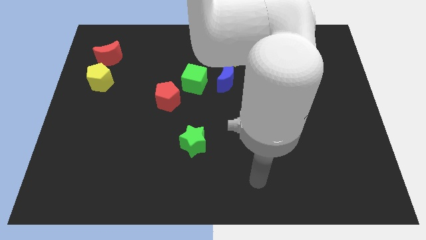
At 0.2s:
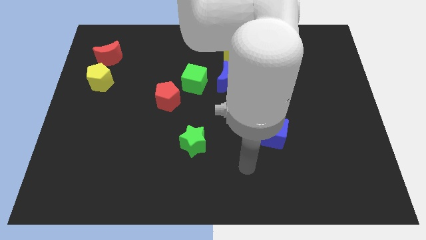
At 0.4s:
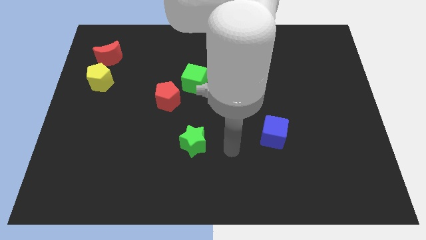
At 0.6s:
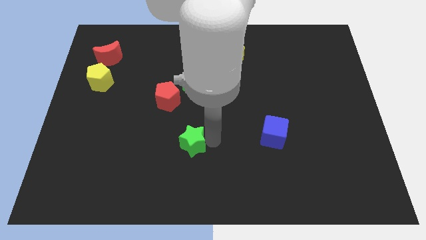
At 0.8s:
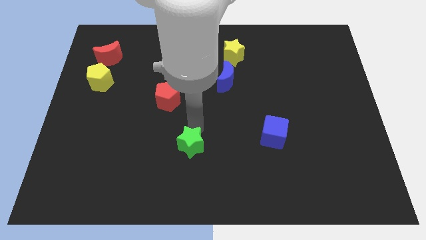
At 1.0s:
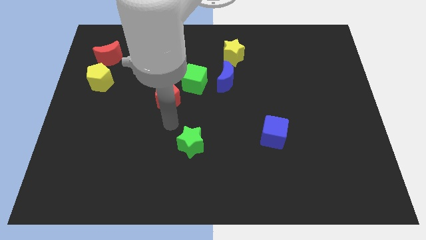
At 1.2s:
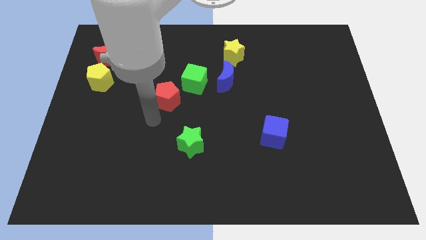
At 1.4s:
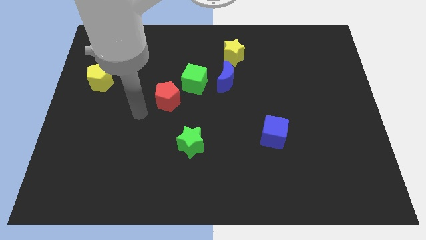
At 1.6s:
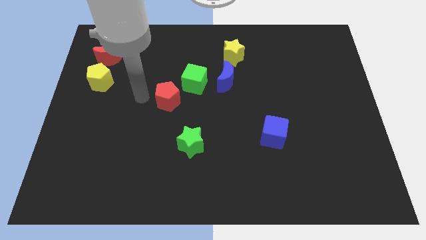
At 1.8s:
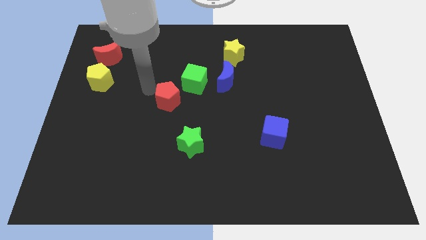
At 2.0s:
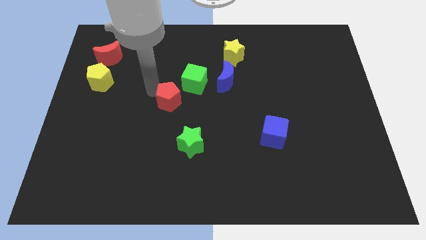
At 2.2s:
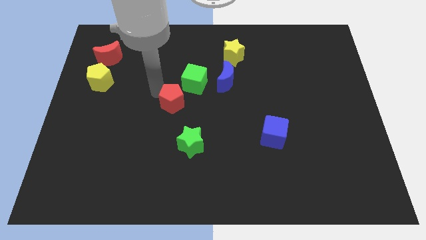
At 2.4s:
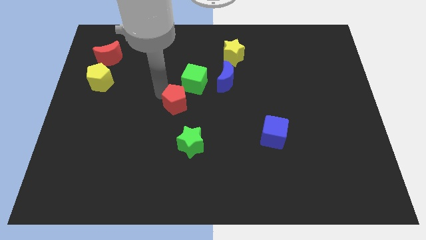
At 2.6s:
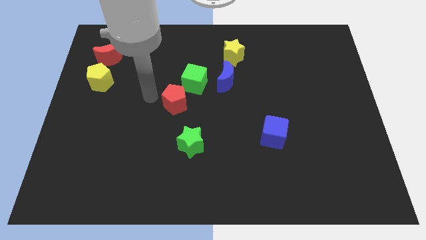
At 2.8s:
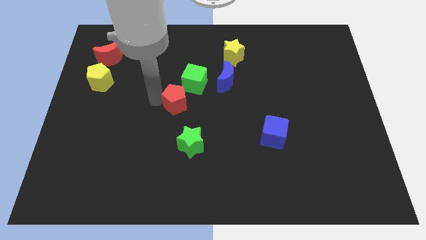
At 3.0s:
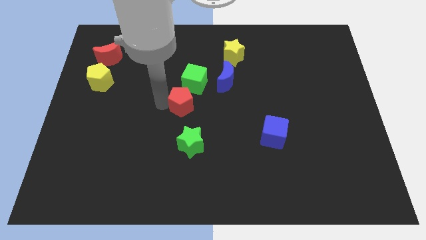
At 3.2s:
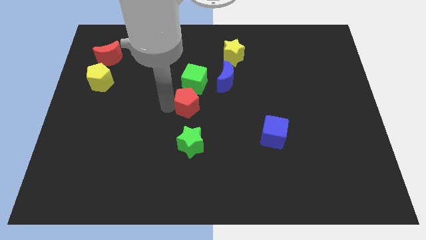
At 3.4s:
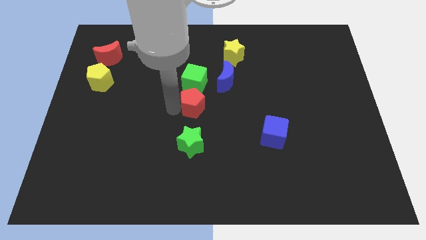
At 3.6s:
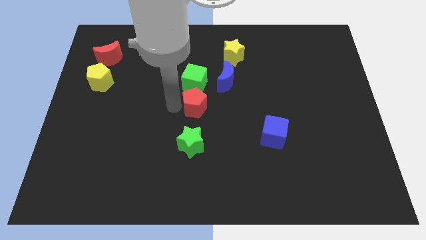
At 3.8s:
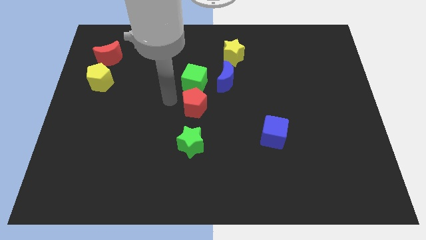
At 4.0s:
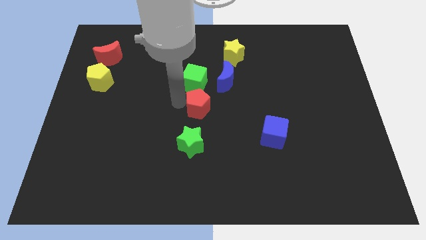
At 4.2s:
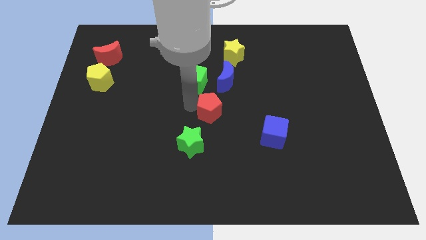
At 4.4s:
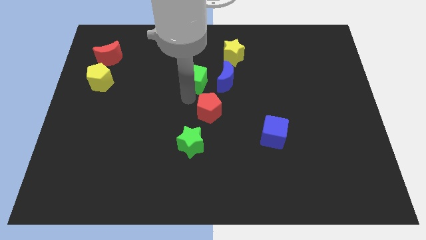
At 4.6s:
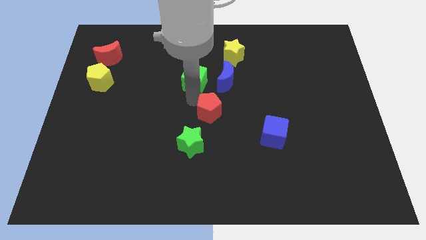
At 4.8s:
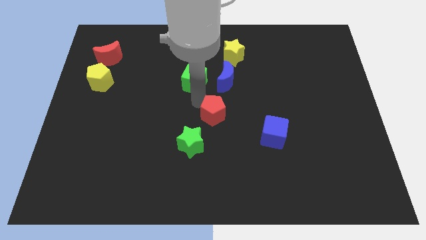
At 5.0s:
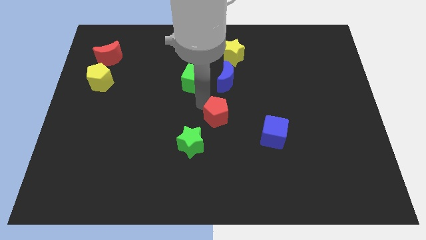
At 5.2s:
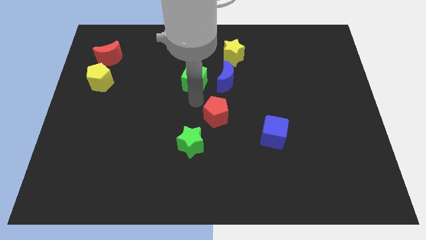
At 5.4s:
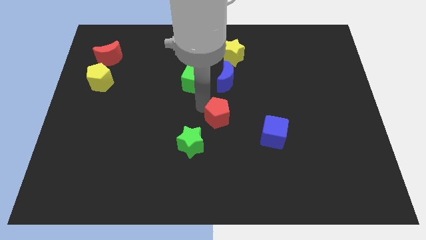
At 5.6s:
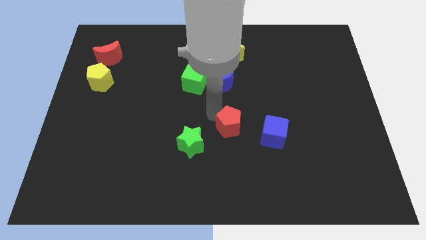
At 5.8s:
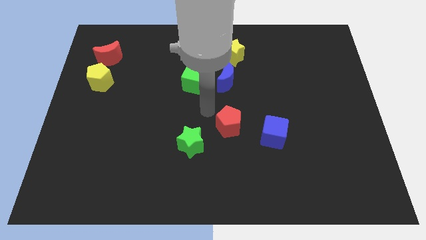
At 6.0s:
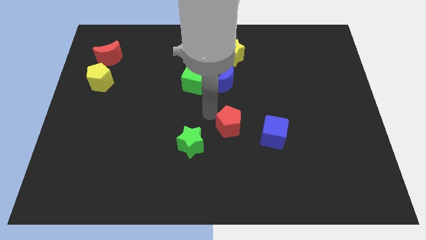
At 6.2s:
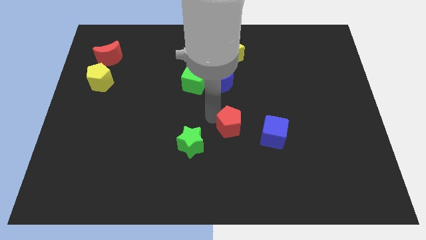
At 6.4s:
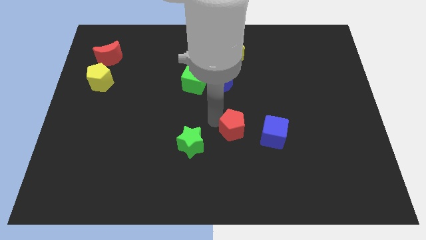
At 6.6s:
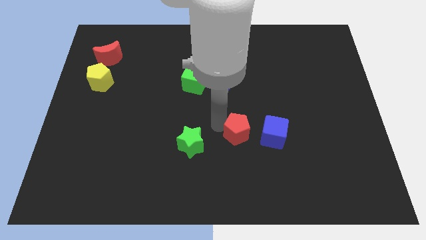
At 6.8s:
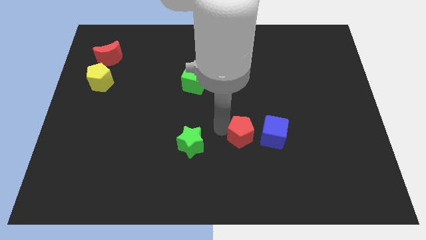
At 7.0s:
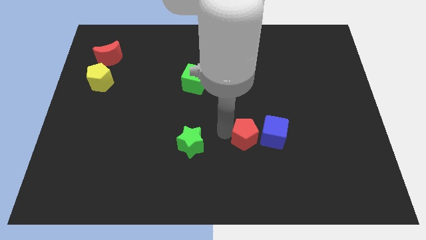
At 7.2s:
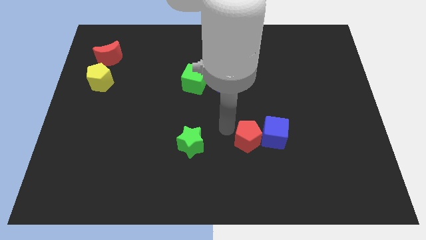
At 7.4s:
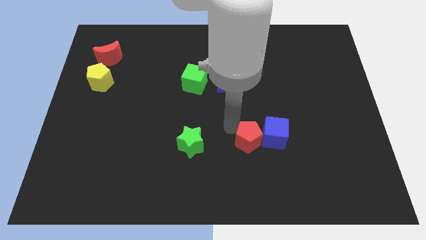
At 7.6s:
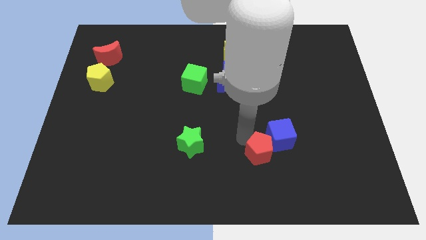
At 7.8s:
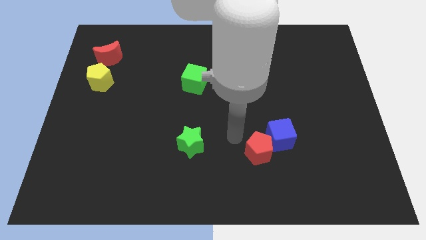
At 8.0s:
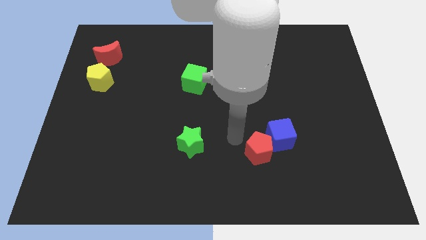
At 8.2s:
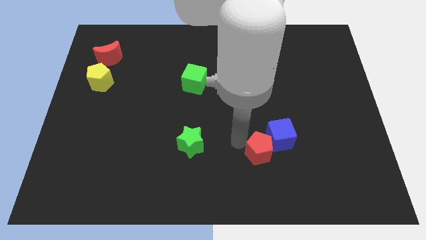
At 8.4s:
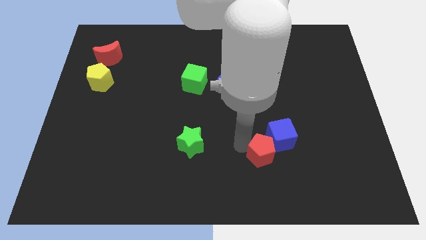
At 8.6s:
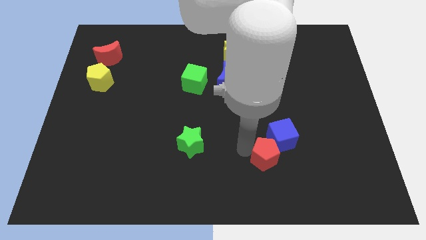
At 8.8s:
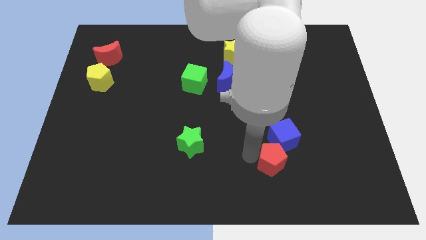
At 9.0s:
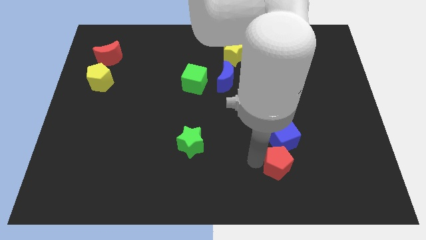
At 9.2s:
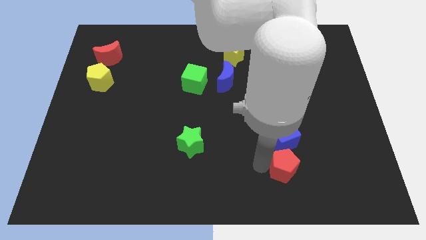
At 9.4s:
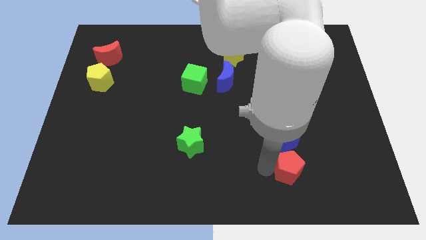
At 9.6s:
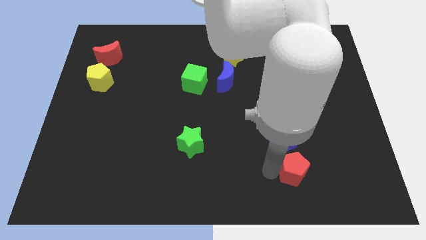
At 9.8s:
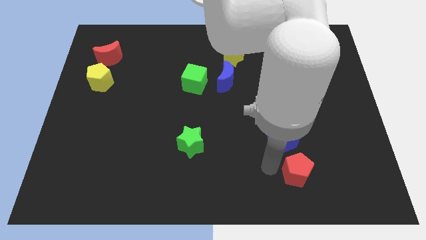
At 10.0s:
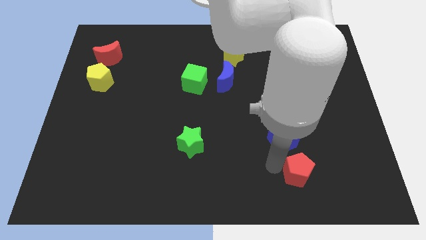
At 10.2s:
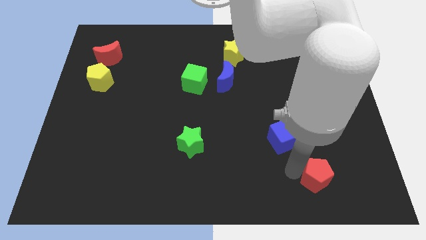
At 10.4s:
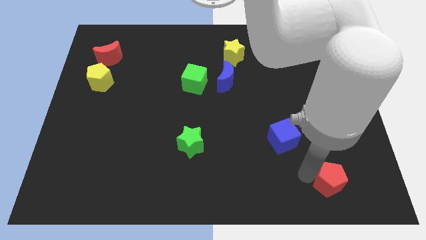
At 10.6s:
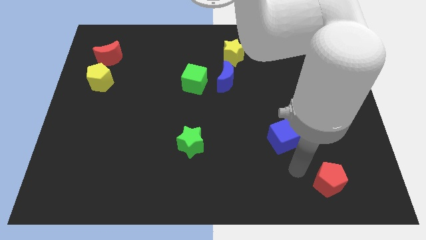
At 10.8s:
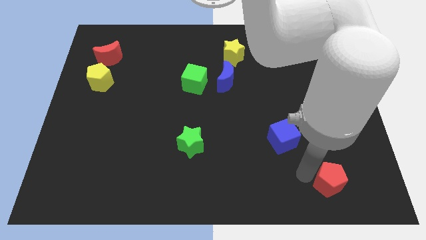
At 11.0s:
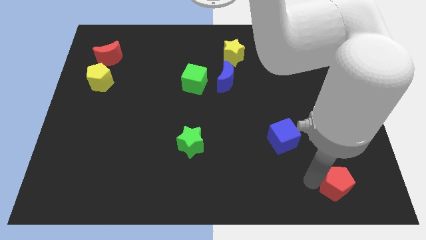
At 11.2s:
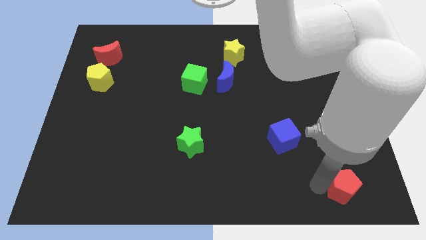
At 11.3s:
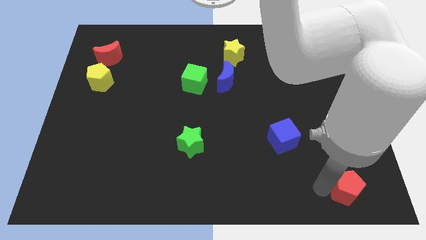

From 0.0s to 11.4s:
slide the red pentagon to the lower right corner
